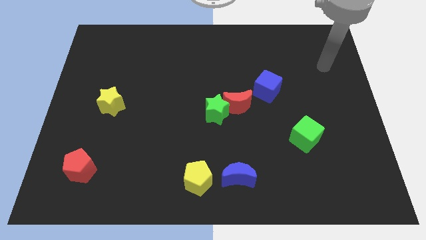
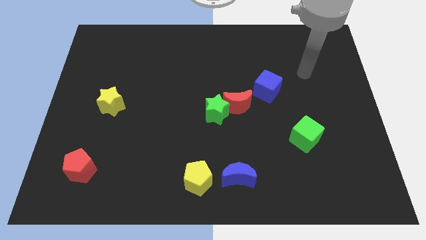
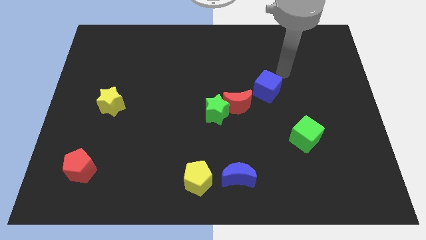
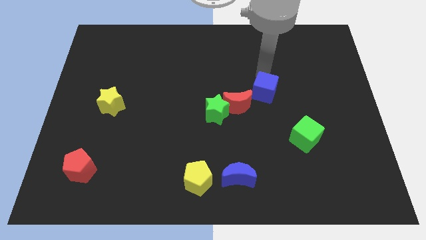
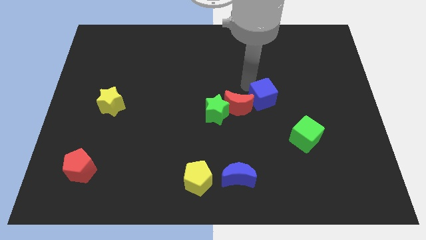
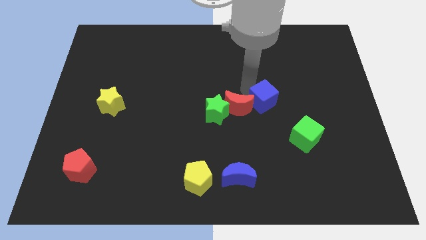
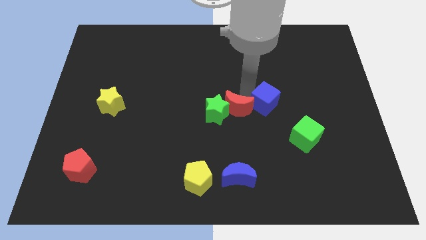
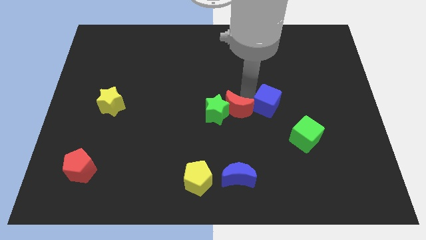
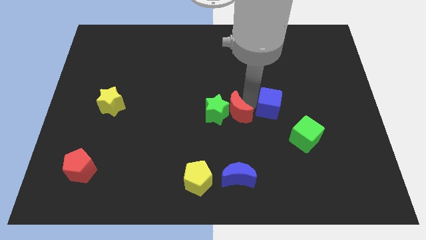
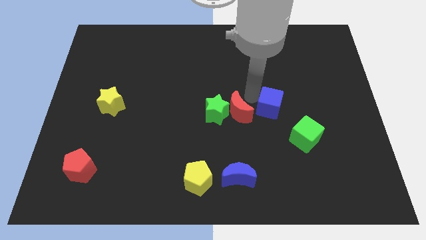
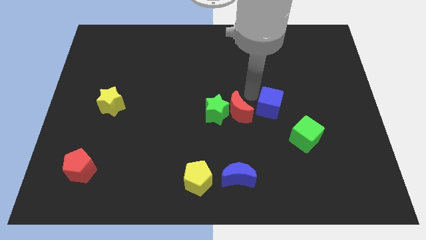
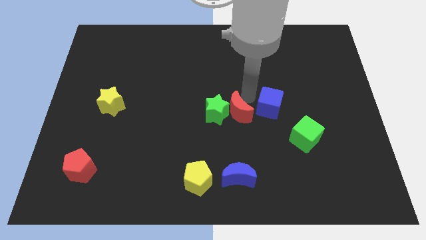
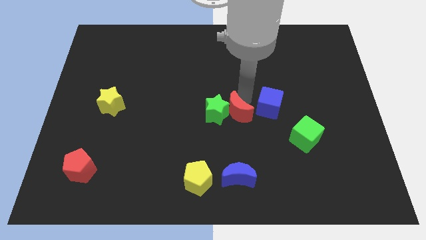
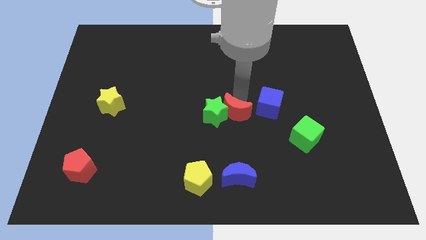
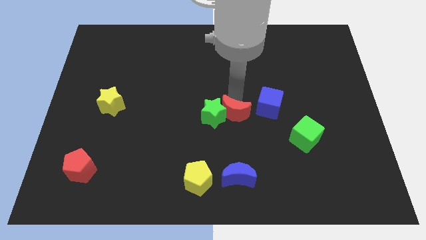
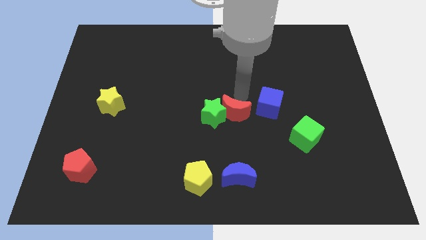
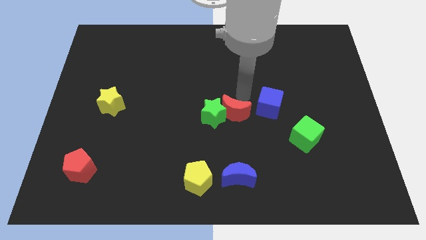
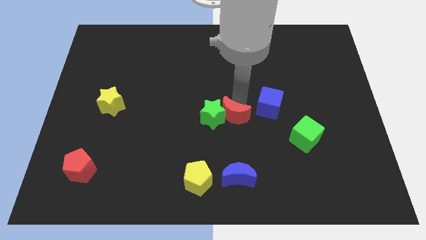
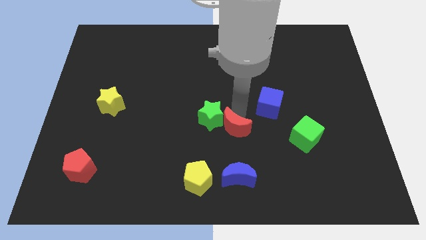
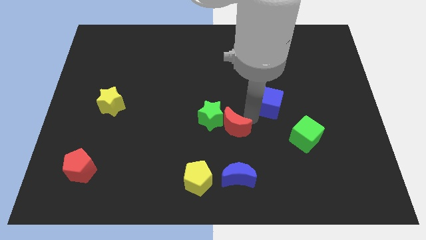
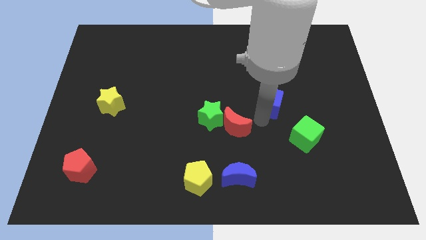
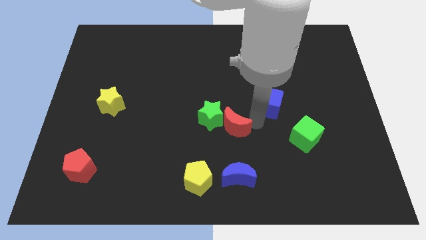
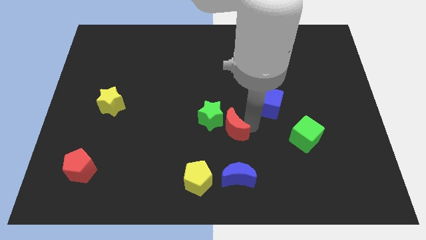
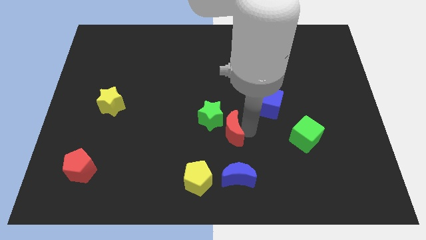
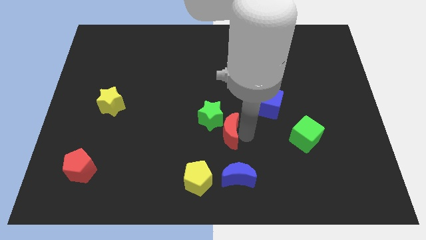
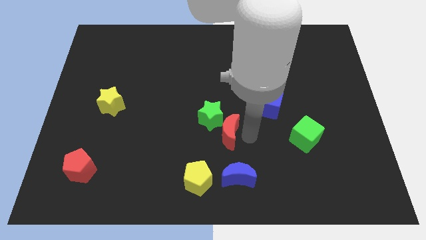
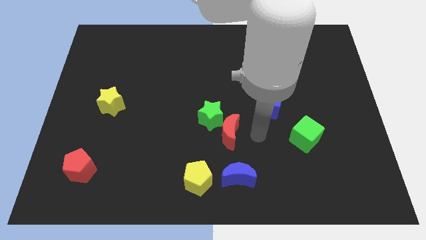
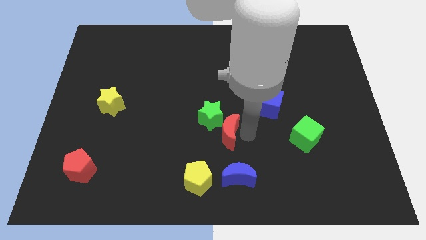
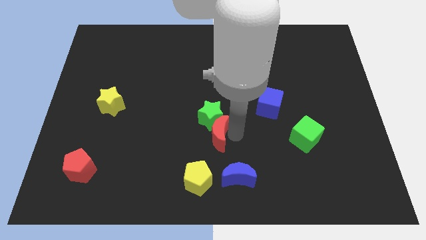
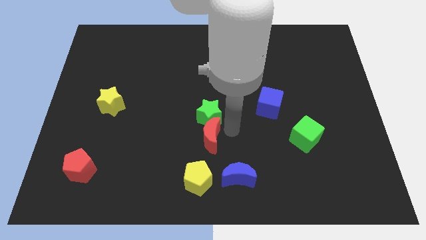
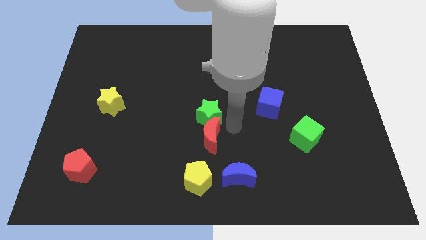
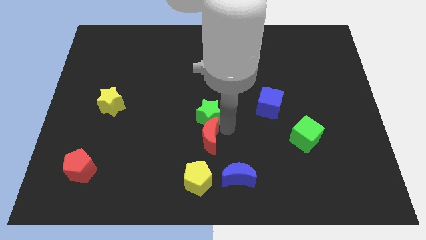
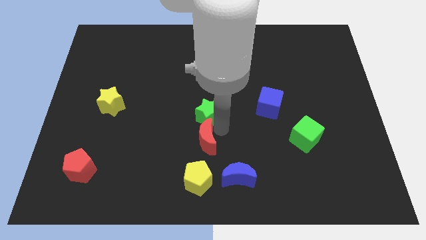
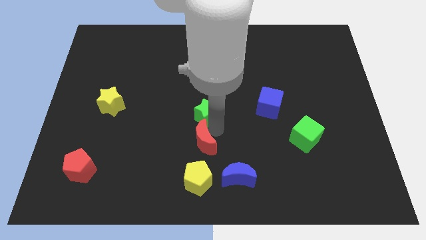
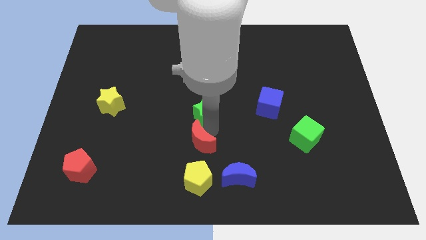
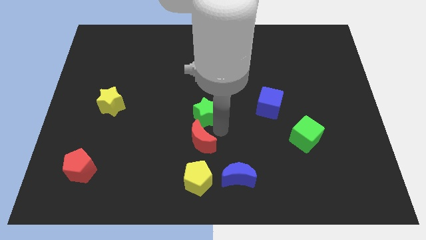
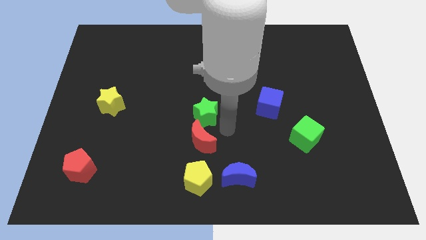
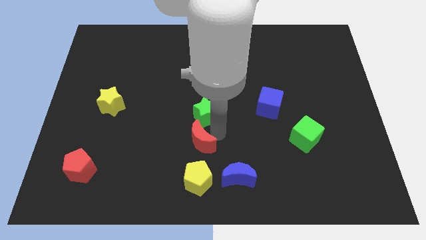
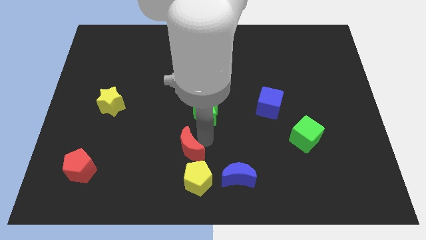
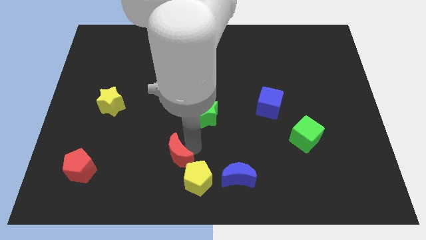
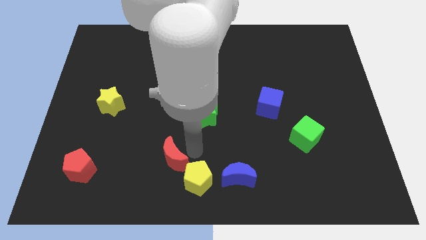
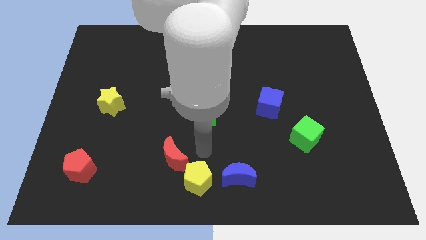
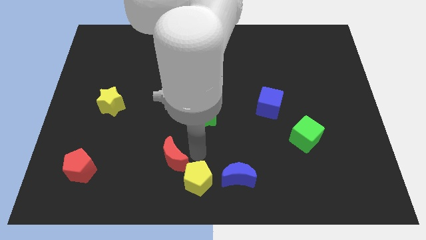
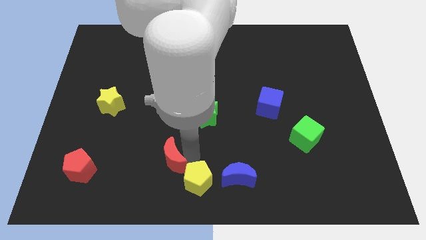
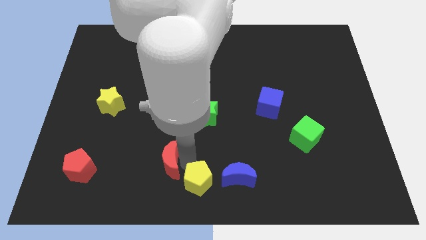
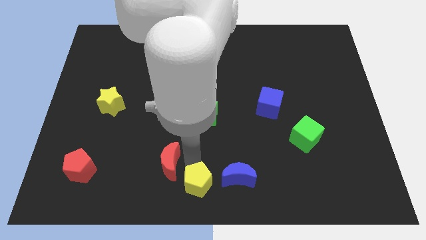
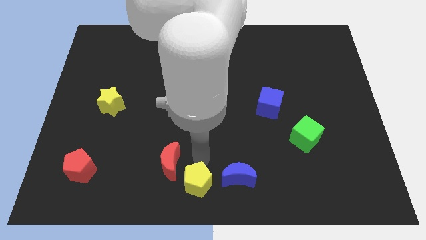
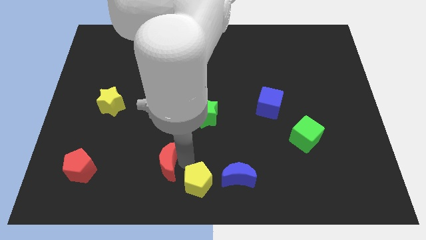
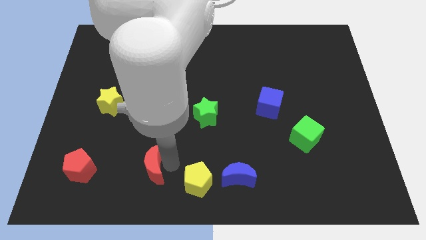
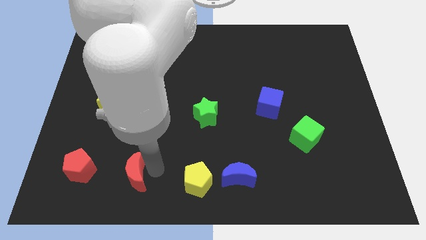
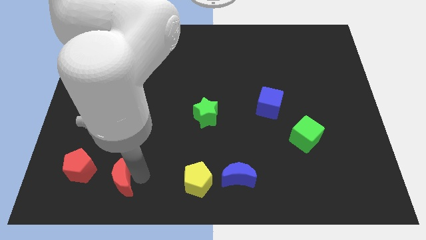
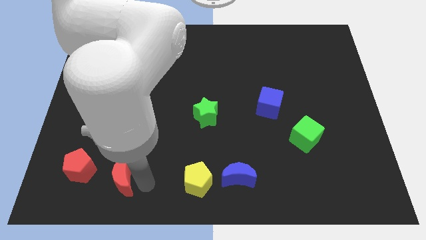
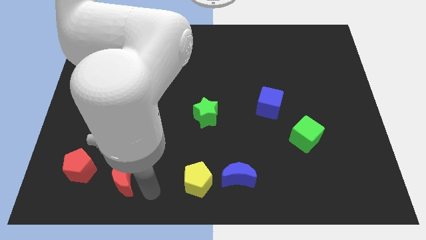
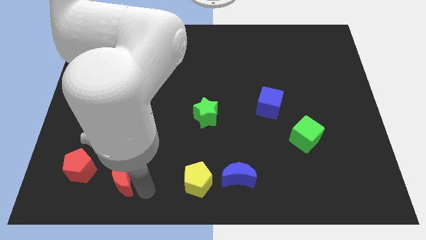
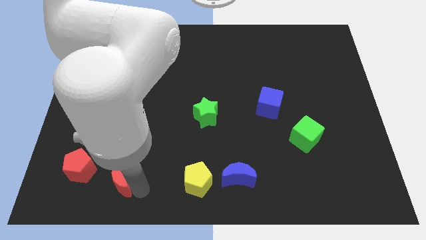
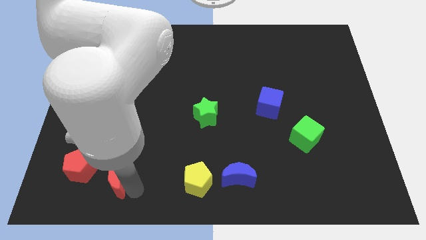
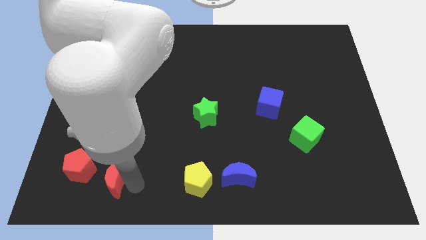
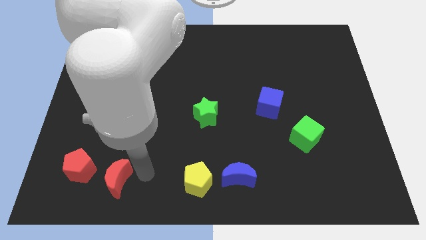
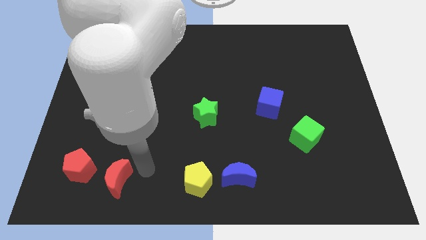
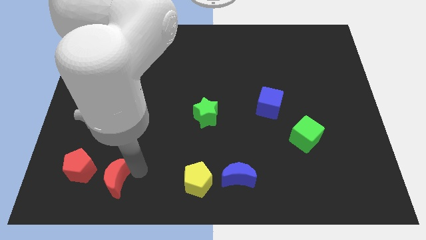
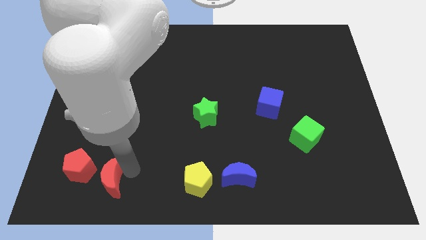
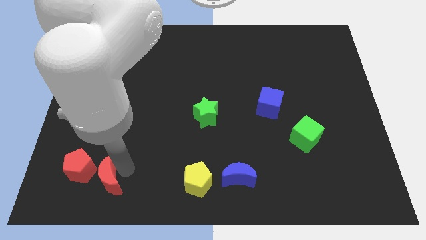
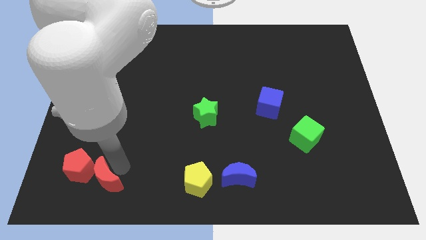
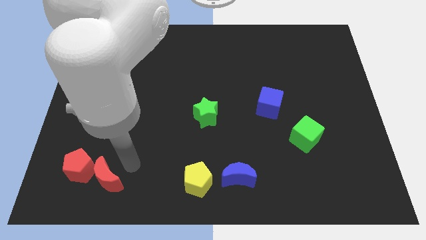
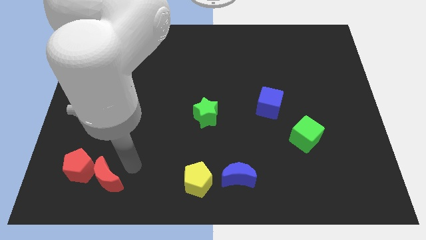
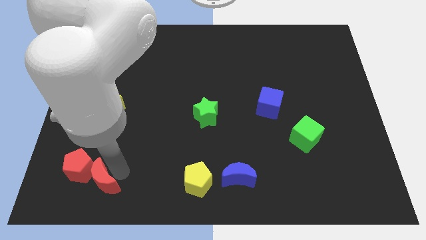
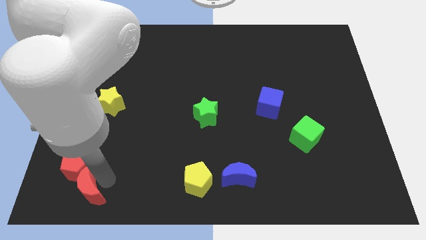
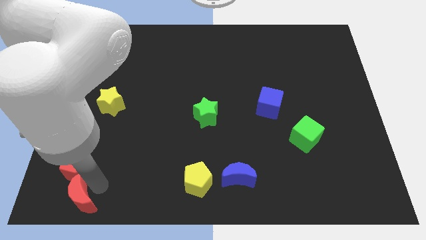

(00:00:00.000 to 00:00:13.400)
slide the red moon to the bottom left of the board

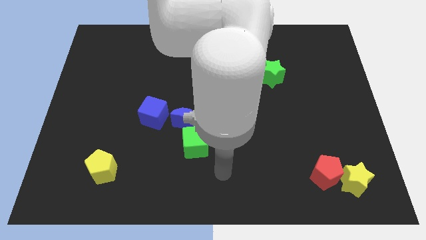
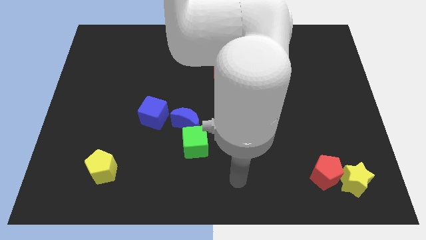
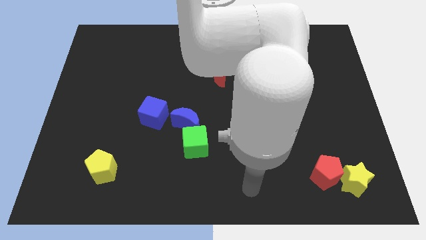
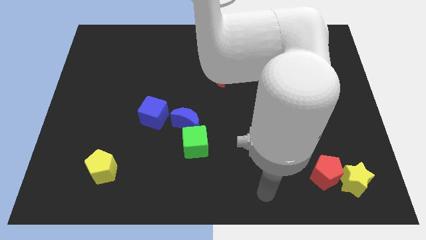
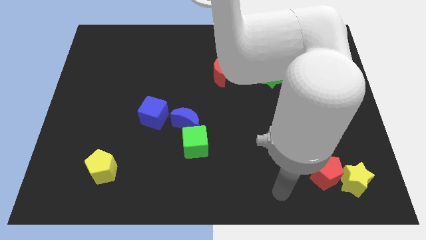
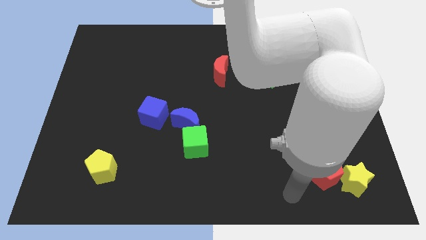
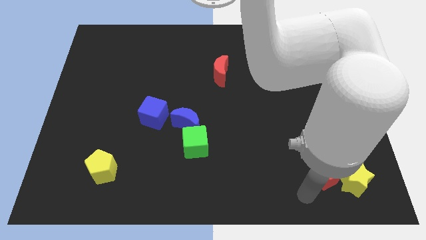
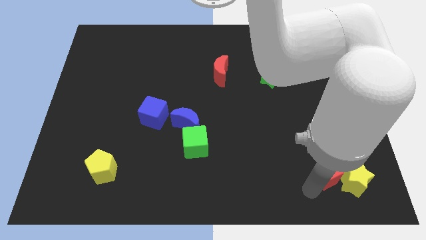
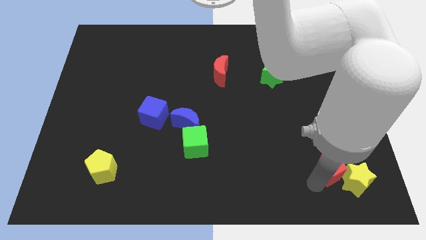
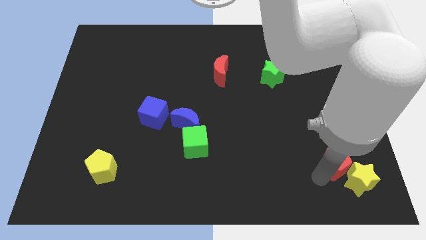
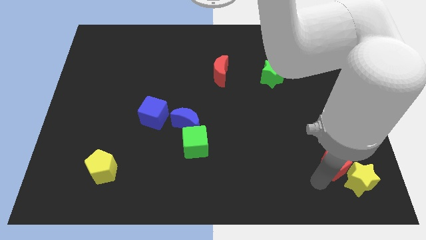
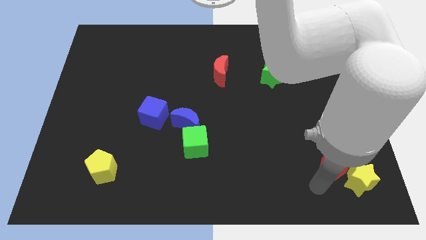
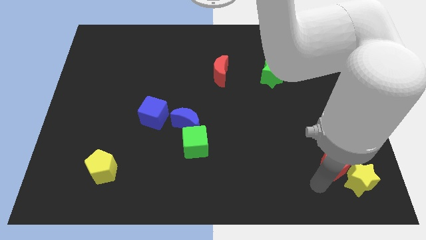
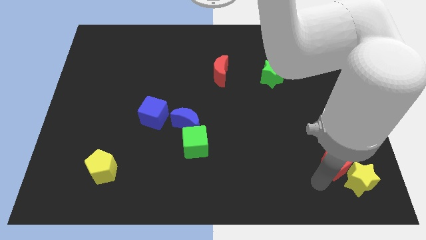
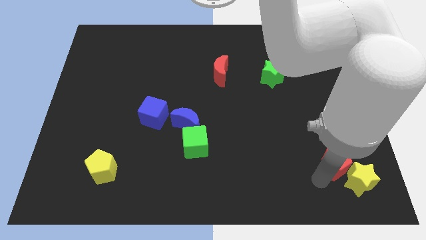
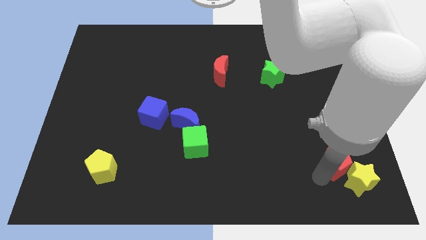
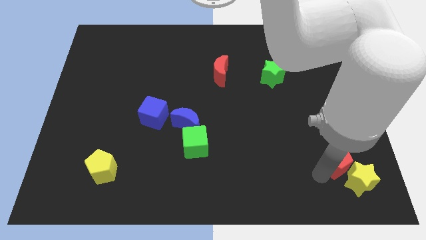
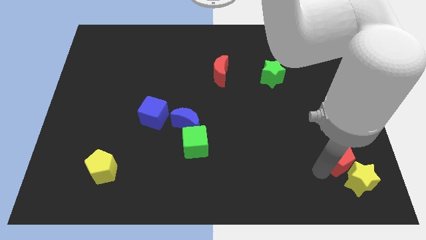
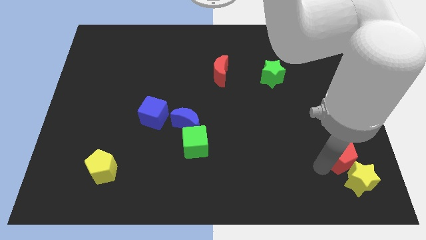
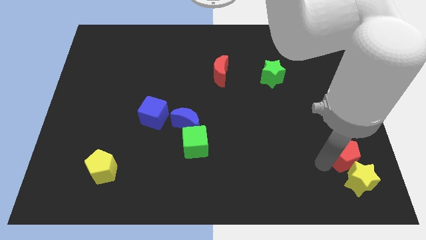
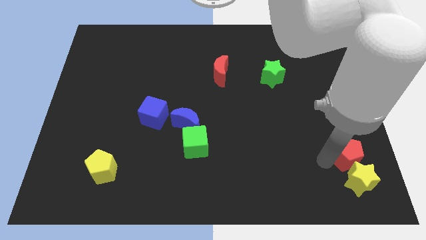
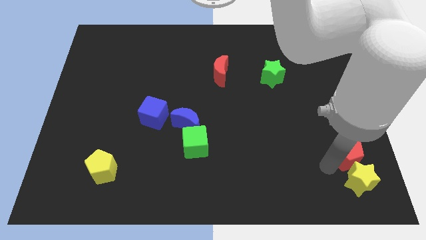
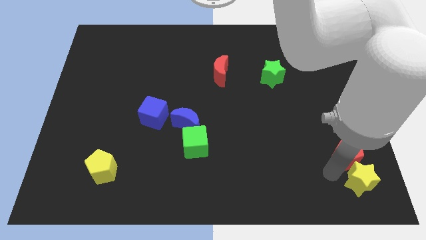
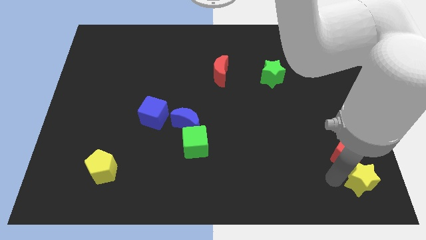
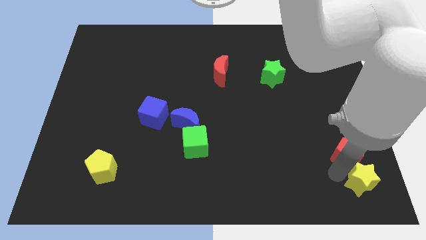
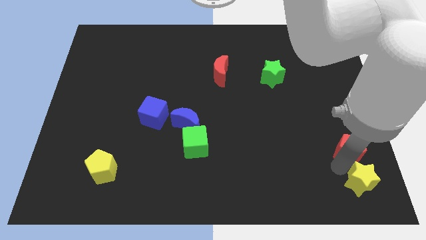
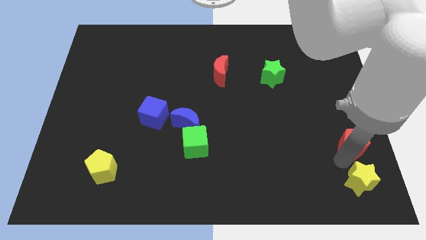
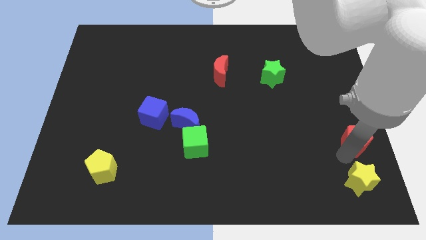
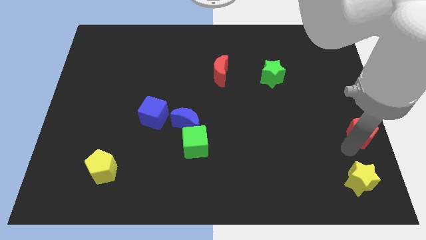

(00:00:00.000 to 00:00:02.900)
slide the red pentagon to the right side of the board
